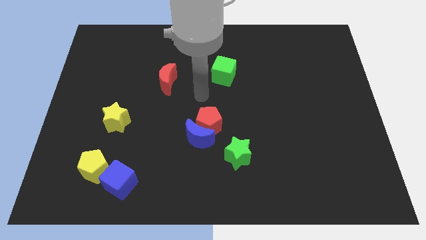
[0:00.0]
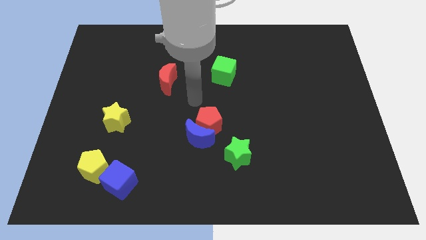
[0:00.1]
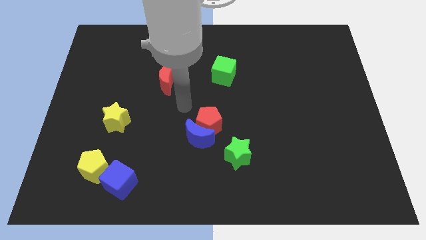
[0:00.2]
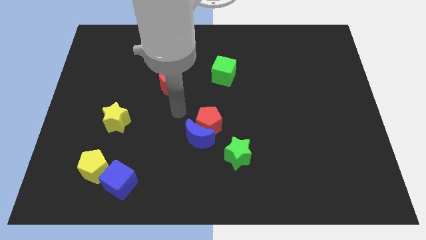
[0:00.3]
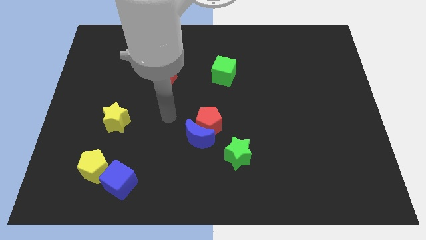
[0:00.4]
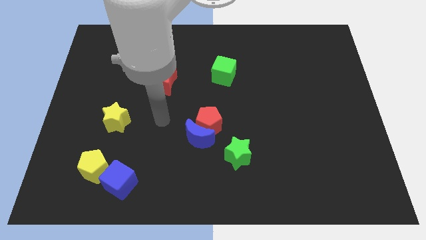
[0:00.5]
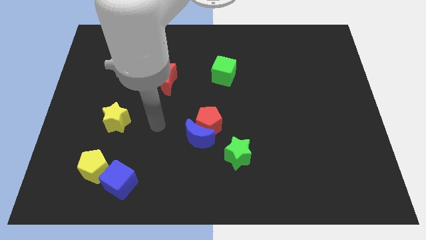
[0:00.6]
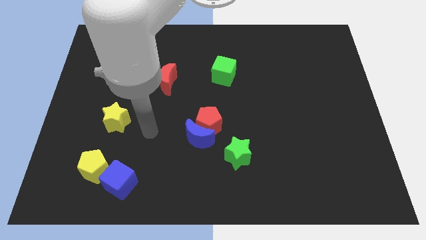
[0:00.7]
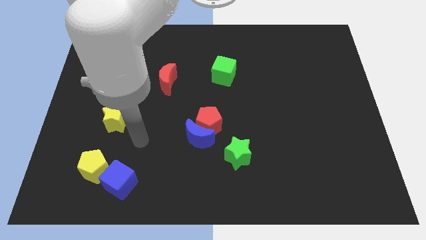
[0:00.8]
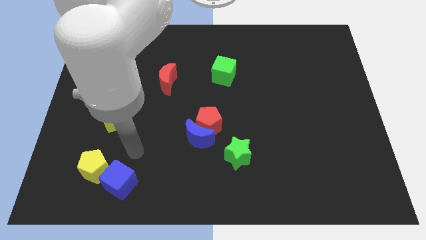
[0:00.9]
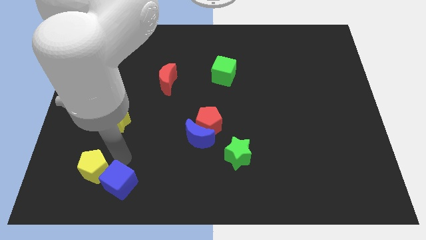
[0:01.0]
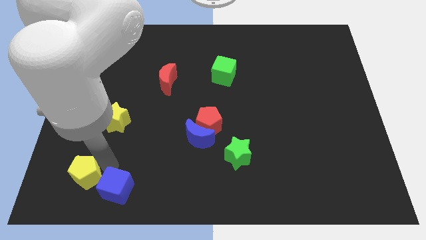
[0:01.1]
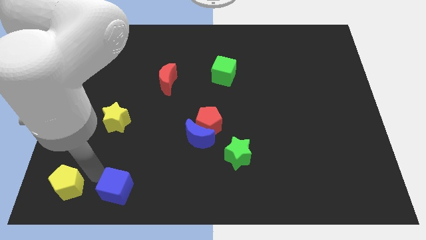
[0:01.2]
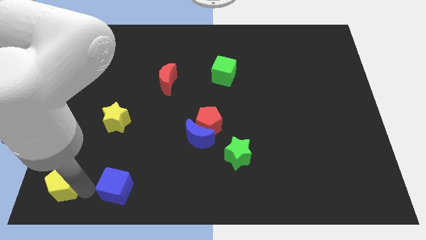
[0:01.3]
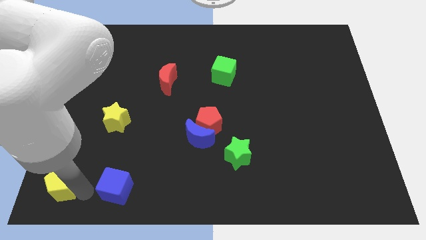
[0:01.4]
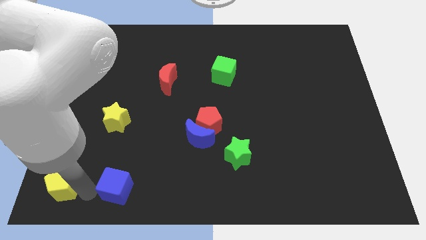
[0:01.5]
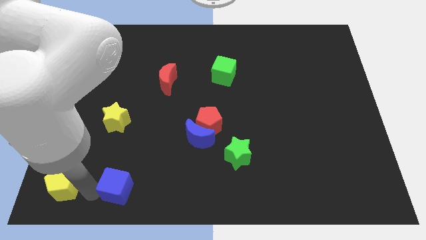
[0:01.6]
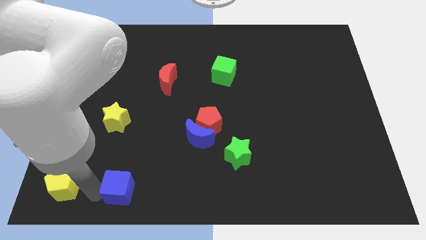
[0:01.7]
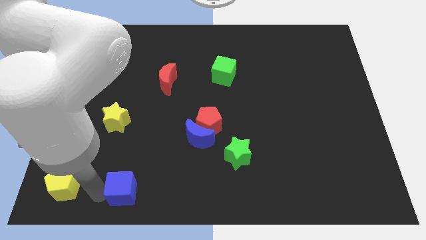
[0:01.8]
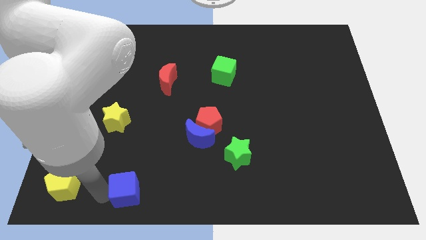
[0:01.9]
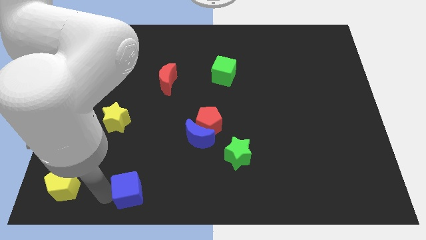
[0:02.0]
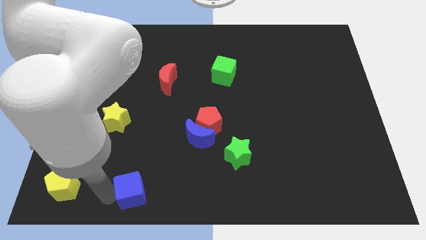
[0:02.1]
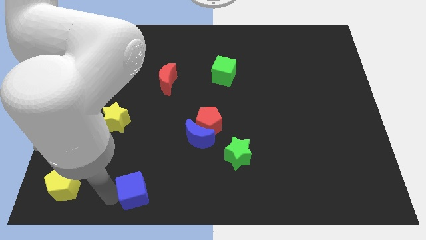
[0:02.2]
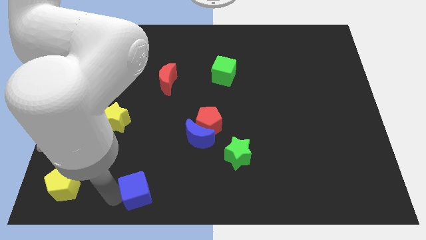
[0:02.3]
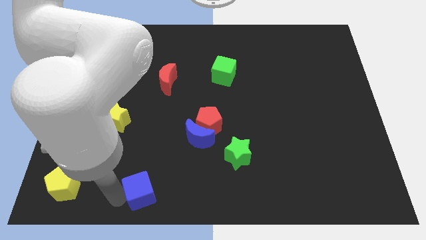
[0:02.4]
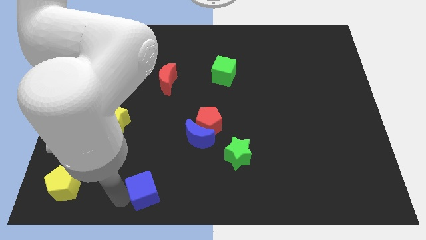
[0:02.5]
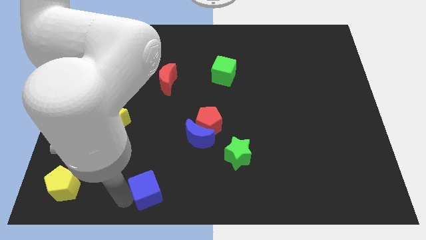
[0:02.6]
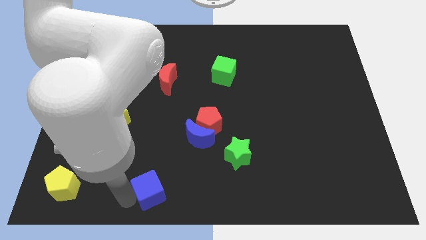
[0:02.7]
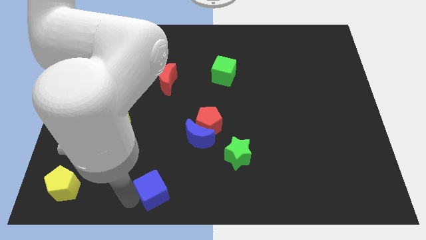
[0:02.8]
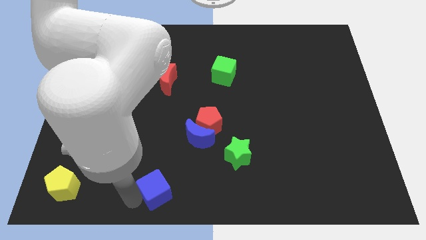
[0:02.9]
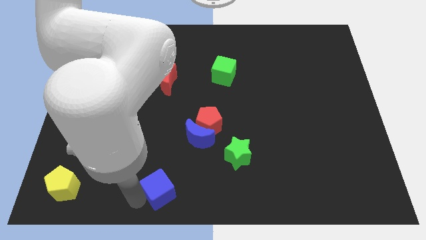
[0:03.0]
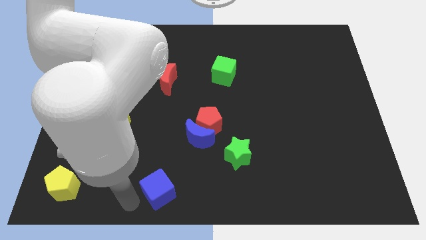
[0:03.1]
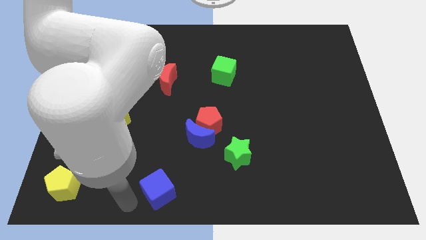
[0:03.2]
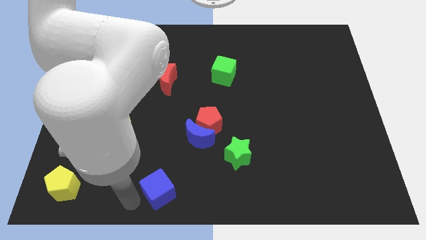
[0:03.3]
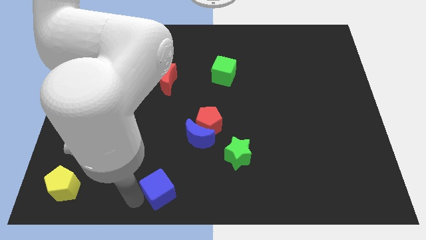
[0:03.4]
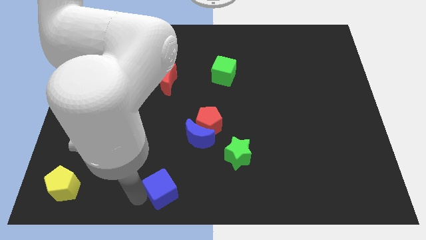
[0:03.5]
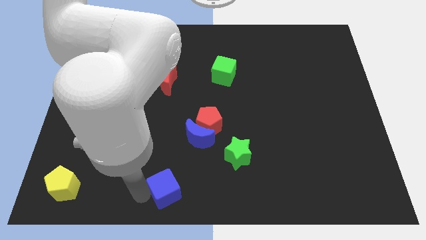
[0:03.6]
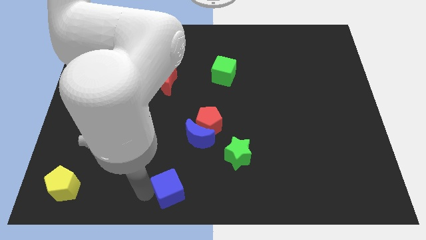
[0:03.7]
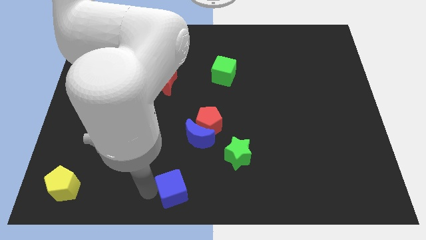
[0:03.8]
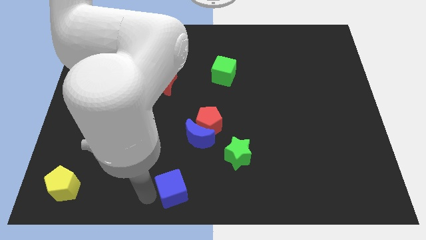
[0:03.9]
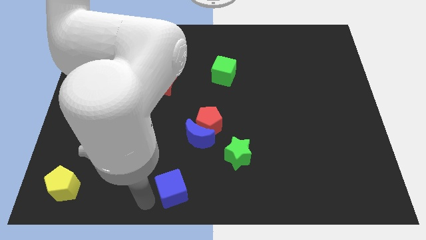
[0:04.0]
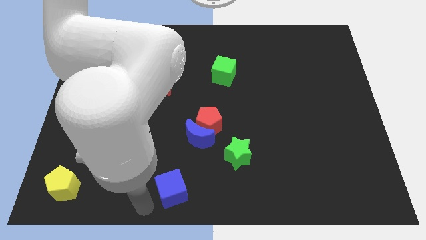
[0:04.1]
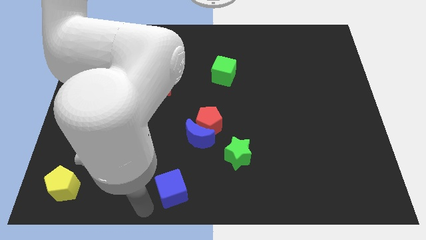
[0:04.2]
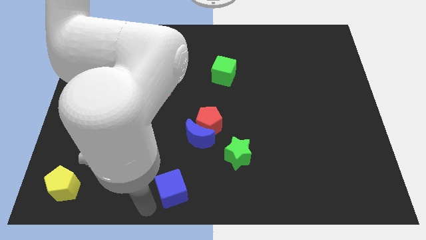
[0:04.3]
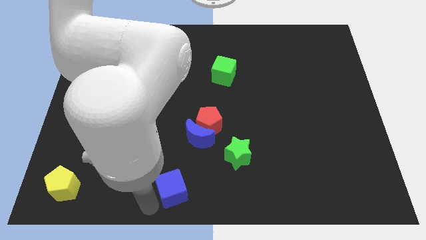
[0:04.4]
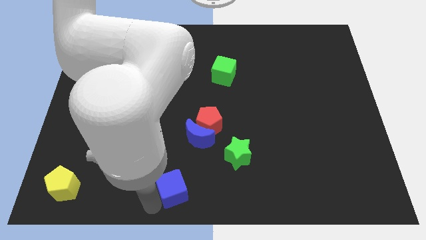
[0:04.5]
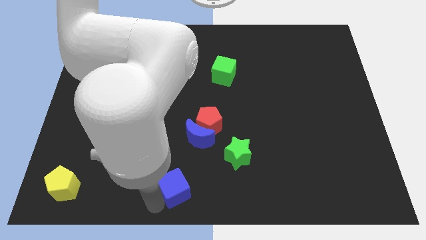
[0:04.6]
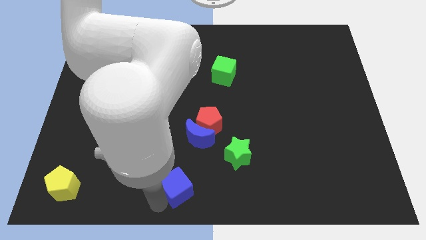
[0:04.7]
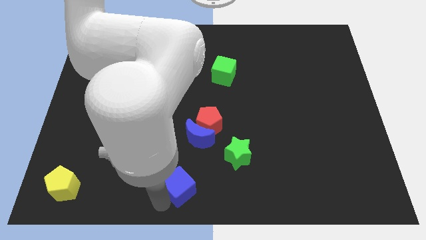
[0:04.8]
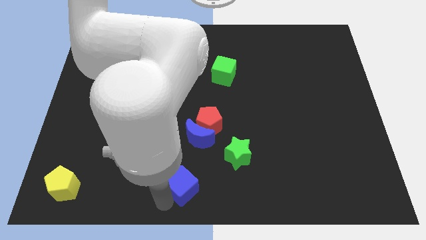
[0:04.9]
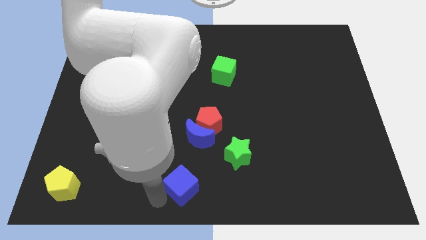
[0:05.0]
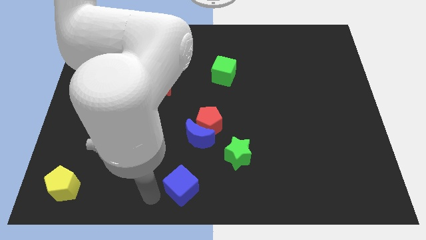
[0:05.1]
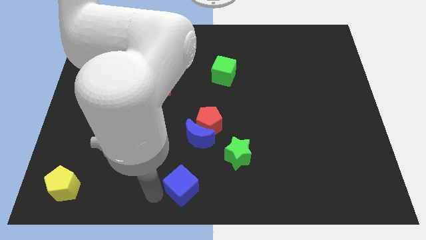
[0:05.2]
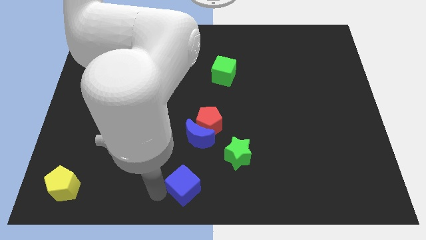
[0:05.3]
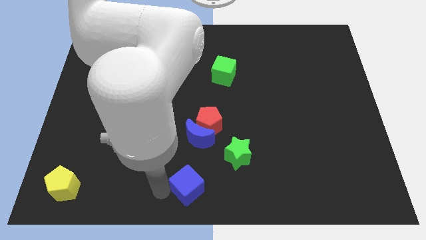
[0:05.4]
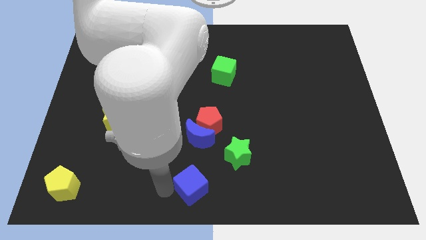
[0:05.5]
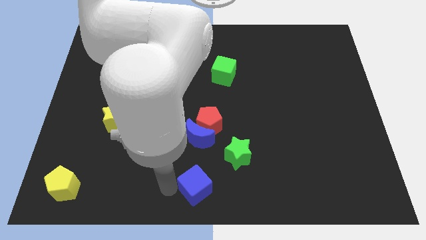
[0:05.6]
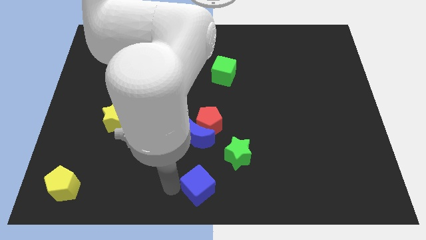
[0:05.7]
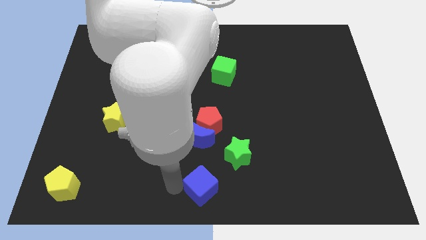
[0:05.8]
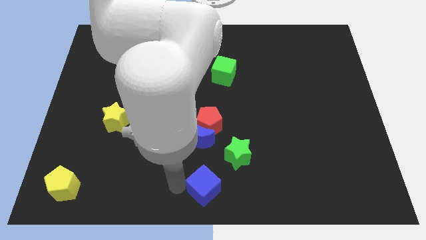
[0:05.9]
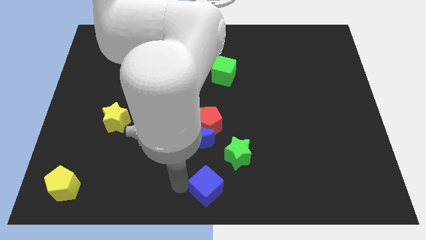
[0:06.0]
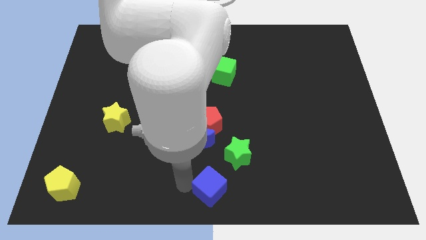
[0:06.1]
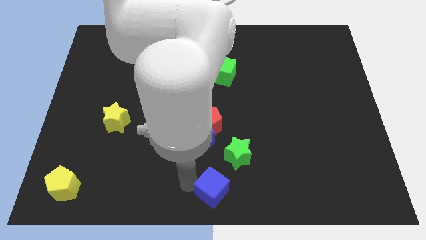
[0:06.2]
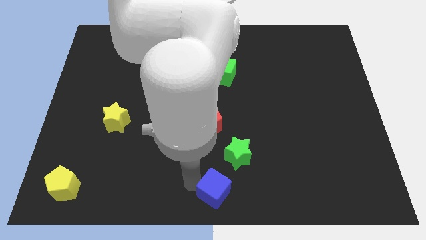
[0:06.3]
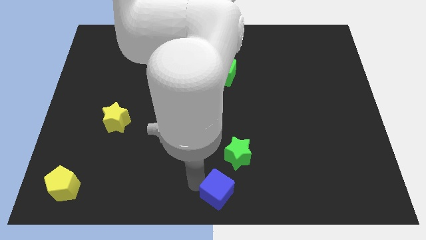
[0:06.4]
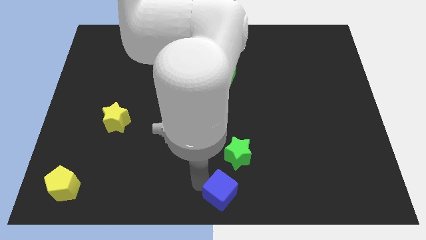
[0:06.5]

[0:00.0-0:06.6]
slide the blue cube to the right

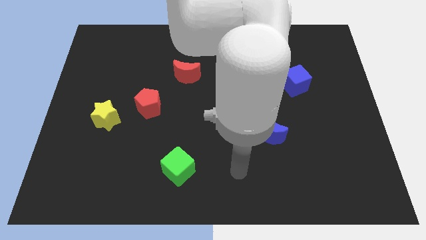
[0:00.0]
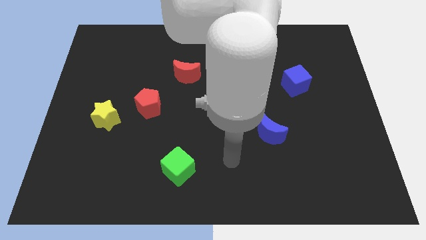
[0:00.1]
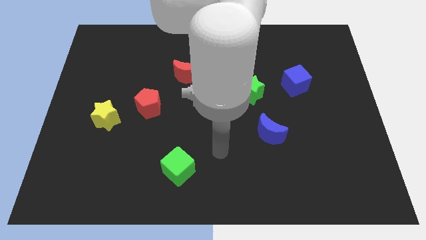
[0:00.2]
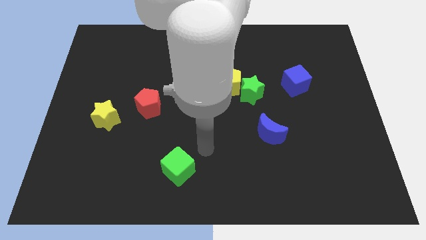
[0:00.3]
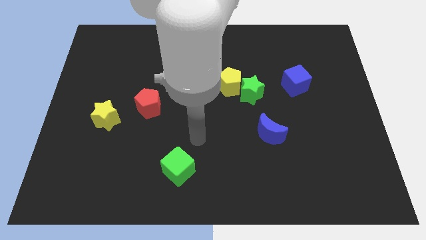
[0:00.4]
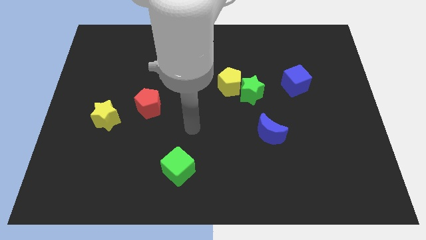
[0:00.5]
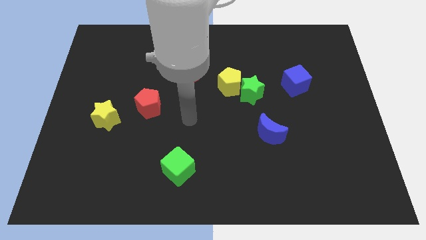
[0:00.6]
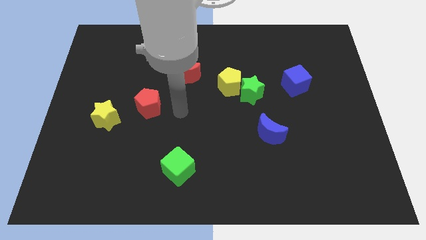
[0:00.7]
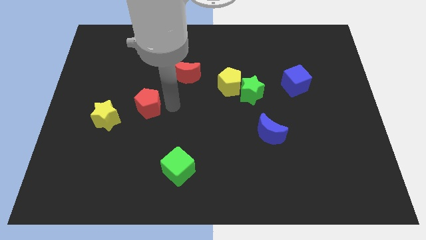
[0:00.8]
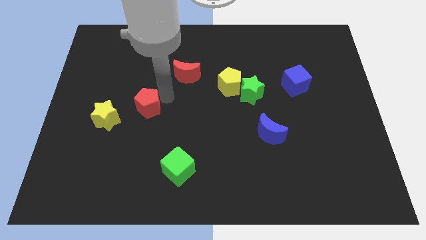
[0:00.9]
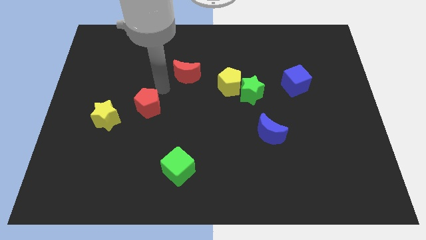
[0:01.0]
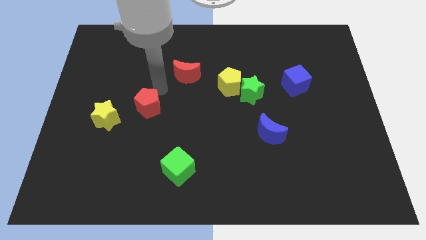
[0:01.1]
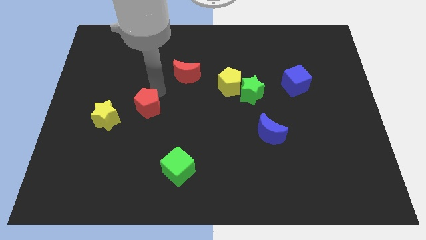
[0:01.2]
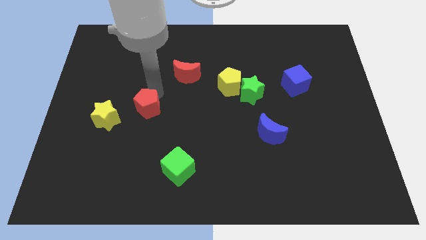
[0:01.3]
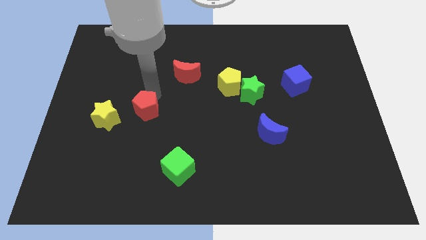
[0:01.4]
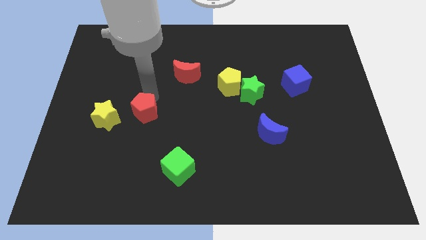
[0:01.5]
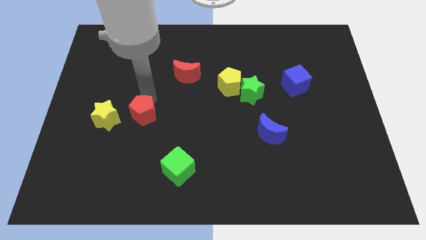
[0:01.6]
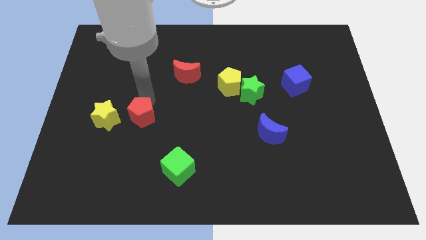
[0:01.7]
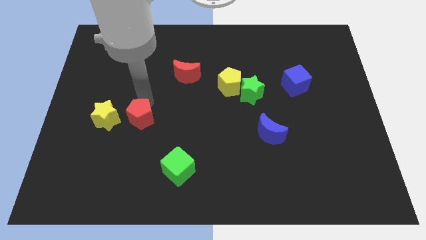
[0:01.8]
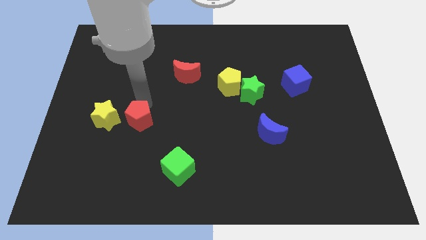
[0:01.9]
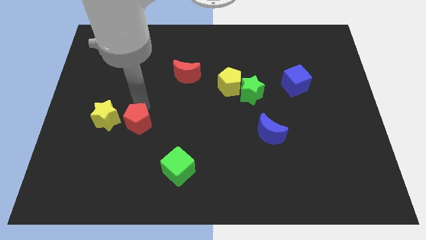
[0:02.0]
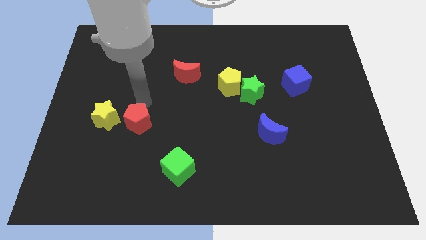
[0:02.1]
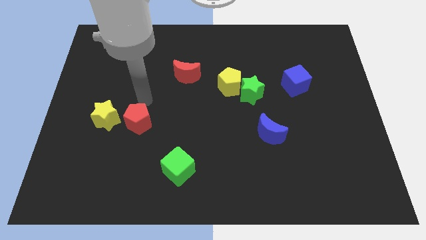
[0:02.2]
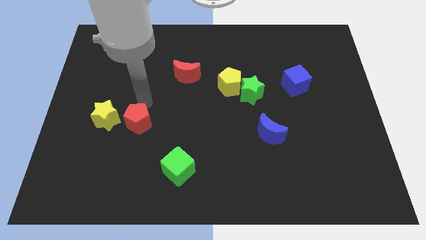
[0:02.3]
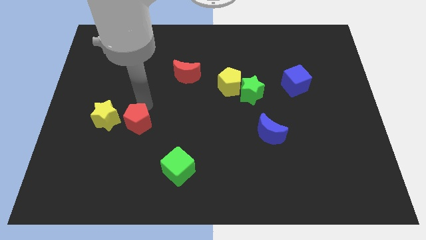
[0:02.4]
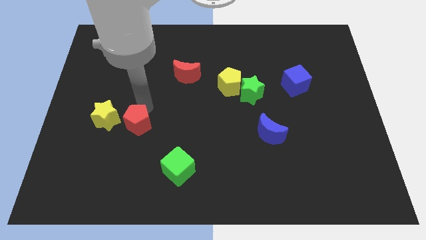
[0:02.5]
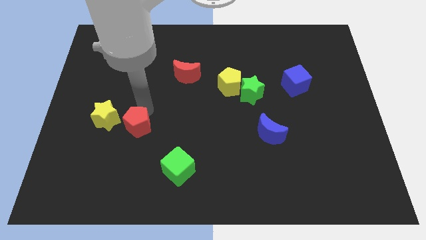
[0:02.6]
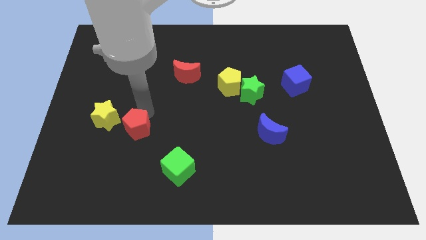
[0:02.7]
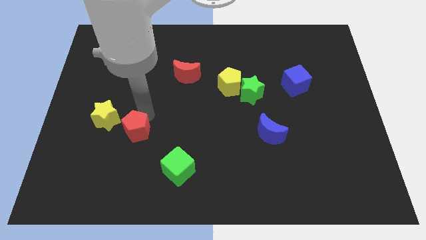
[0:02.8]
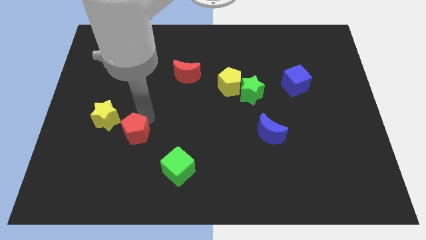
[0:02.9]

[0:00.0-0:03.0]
push the red pentagon somewhat down
